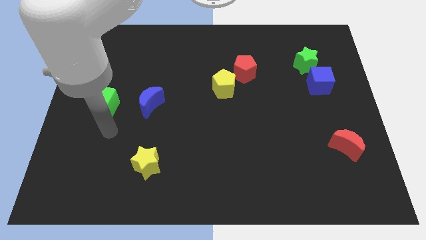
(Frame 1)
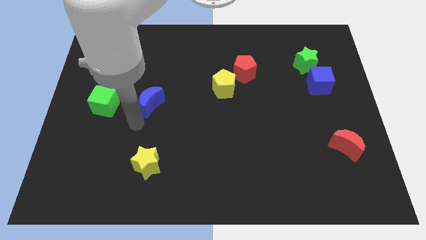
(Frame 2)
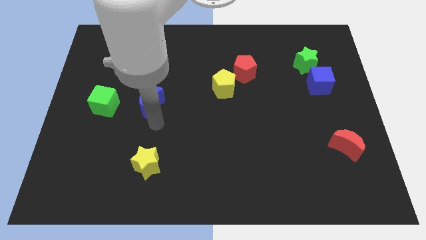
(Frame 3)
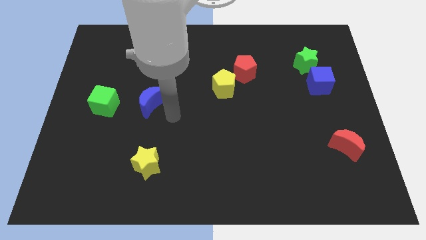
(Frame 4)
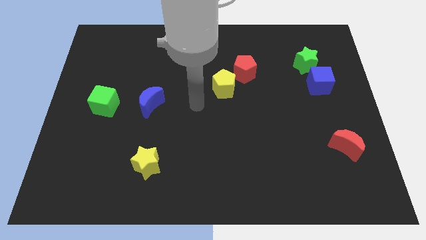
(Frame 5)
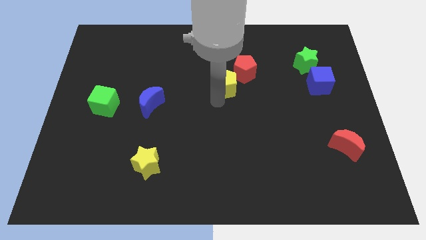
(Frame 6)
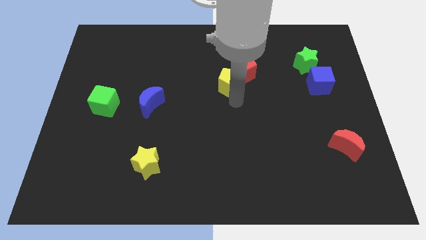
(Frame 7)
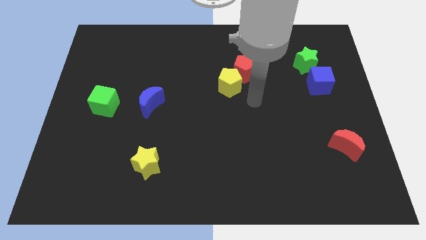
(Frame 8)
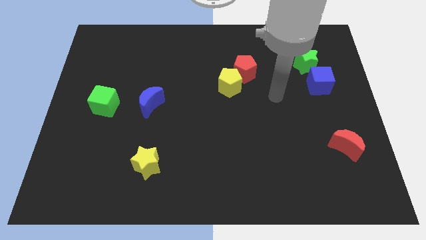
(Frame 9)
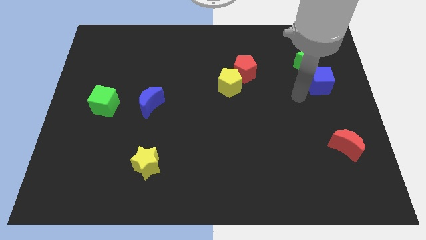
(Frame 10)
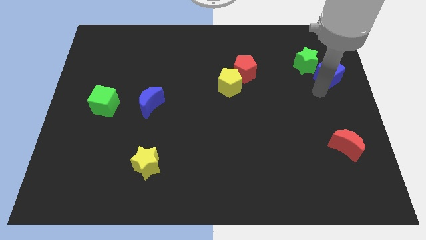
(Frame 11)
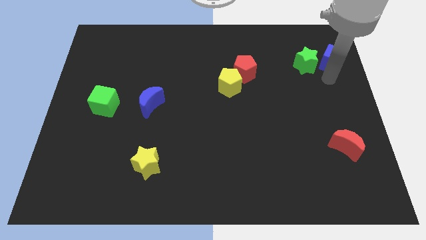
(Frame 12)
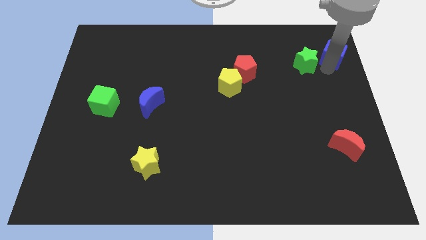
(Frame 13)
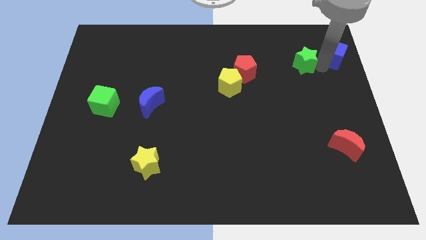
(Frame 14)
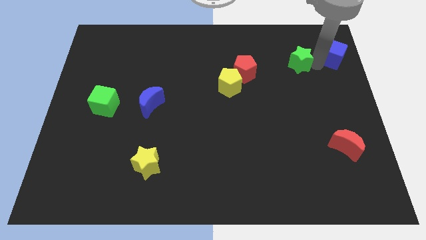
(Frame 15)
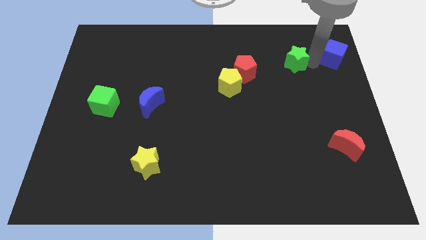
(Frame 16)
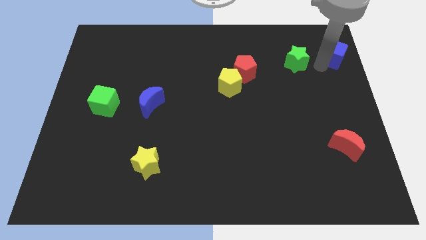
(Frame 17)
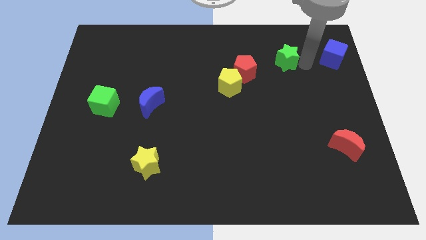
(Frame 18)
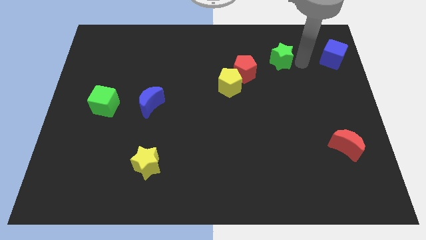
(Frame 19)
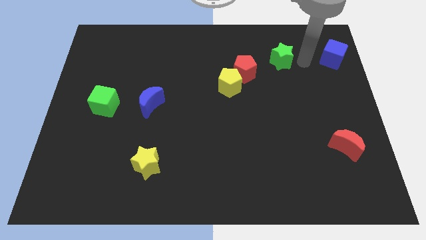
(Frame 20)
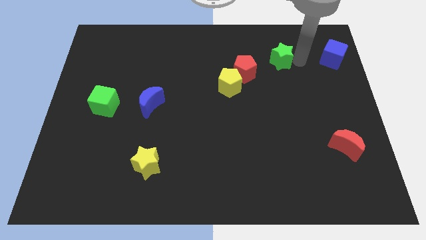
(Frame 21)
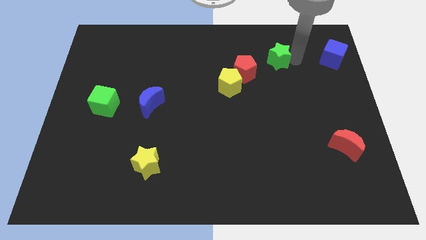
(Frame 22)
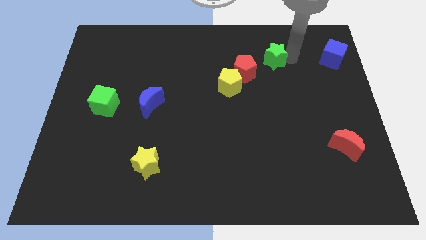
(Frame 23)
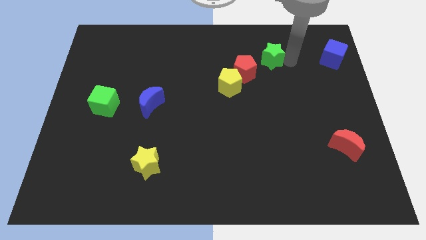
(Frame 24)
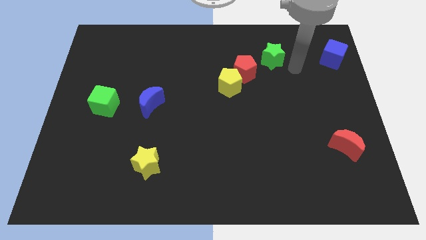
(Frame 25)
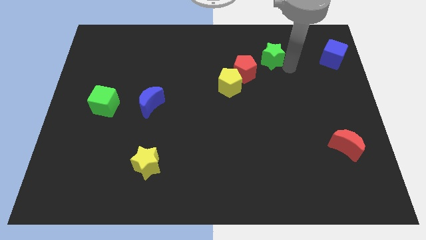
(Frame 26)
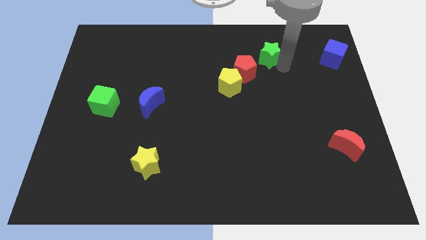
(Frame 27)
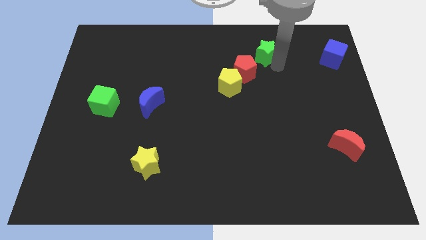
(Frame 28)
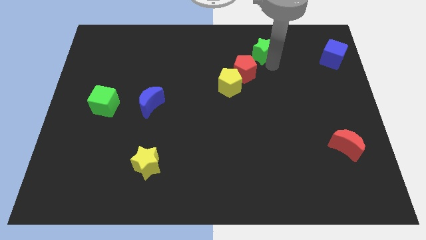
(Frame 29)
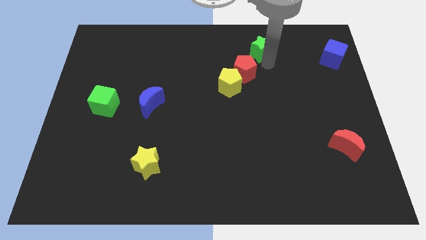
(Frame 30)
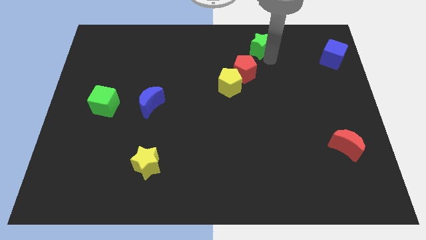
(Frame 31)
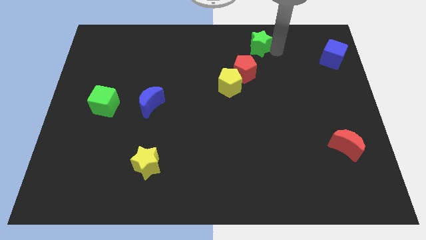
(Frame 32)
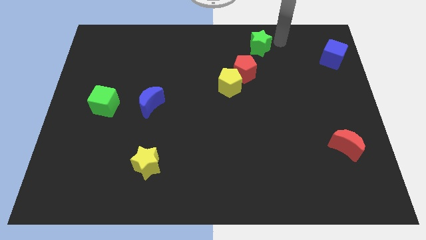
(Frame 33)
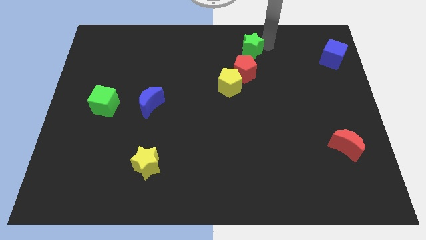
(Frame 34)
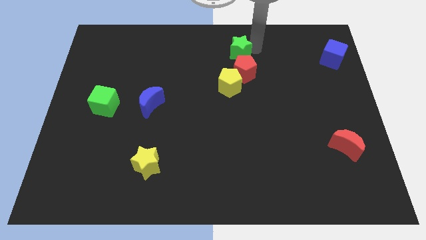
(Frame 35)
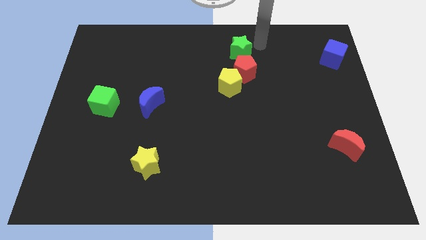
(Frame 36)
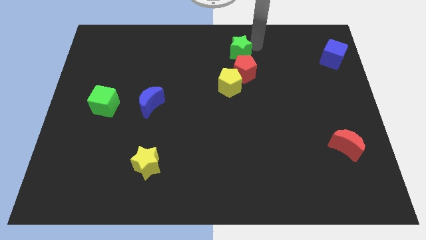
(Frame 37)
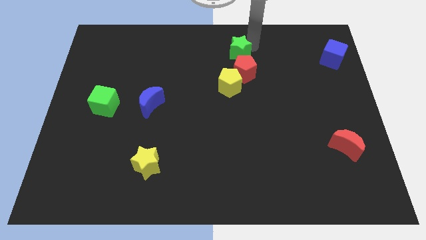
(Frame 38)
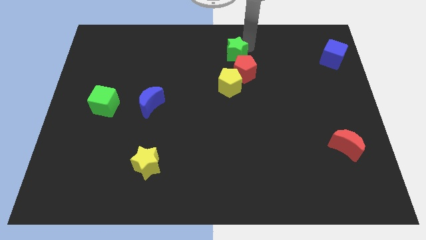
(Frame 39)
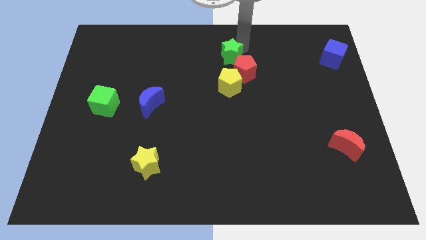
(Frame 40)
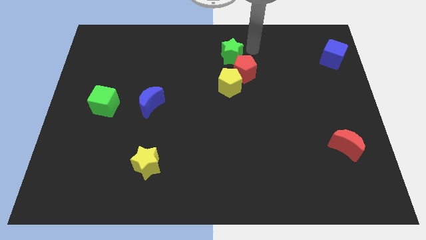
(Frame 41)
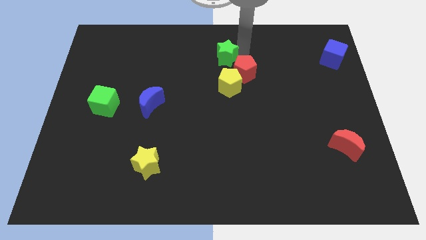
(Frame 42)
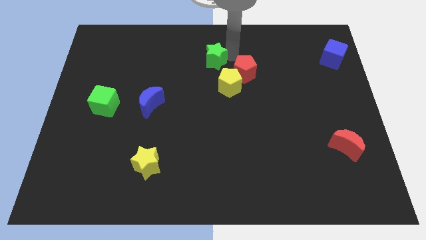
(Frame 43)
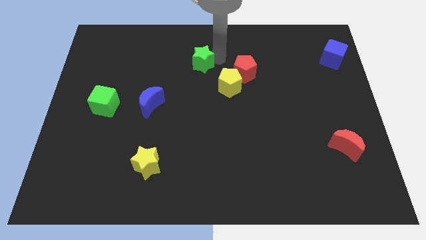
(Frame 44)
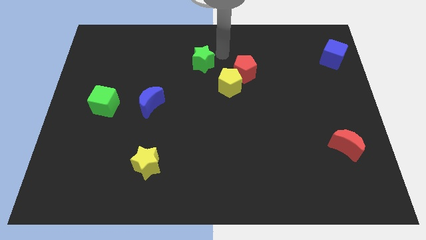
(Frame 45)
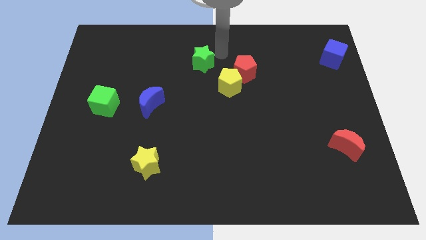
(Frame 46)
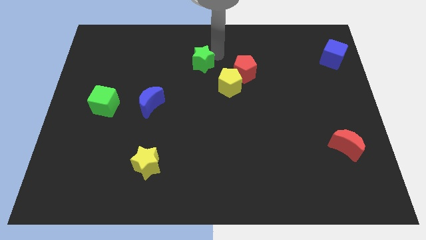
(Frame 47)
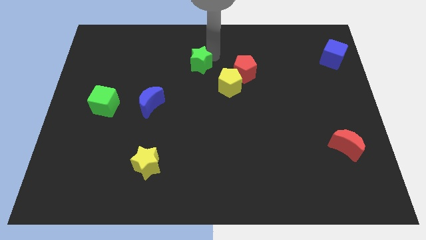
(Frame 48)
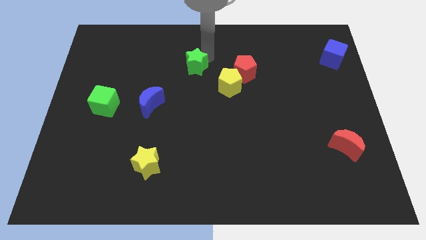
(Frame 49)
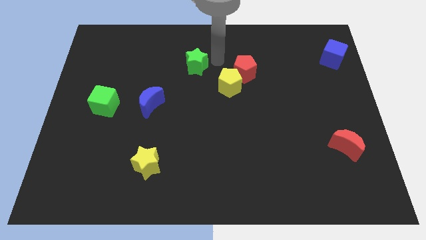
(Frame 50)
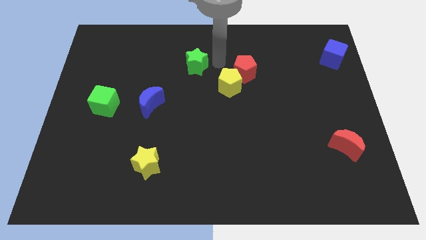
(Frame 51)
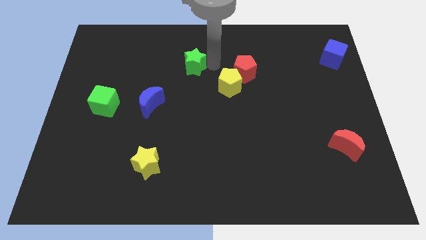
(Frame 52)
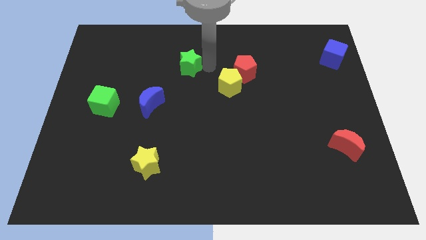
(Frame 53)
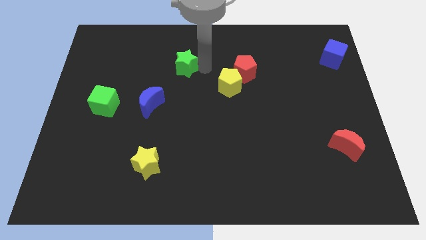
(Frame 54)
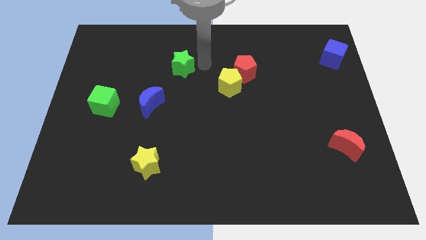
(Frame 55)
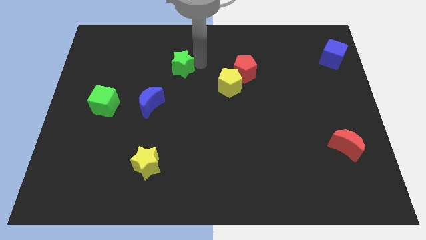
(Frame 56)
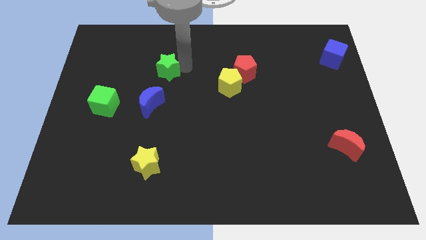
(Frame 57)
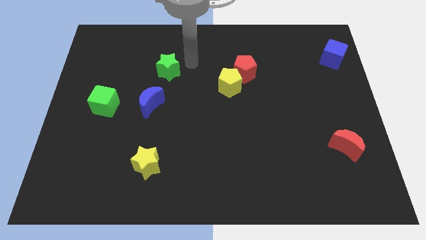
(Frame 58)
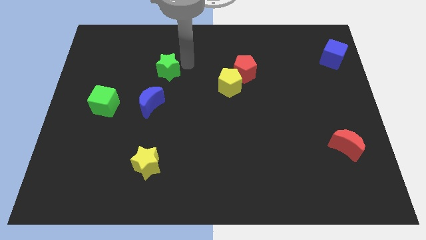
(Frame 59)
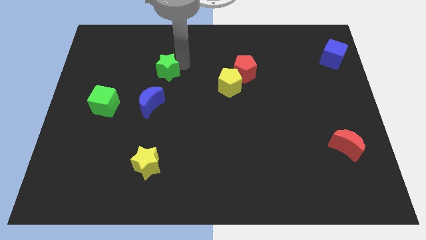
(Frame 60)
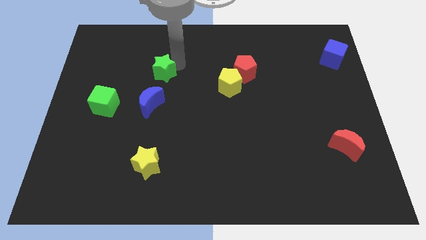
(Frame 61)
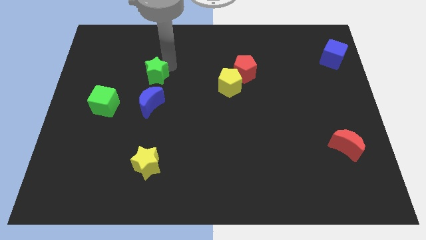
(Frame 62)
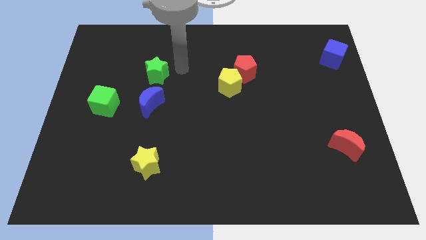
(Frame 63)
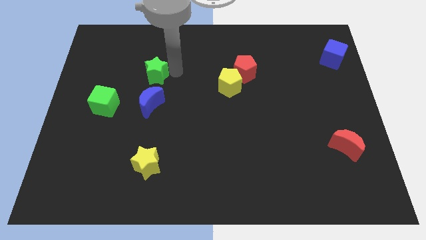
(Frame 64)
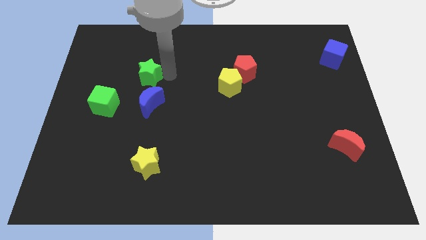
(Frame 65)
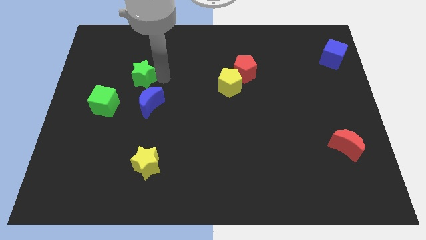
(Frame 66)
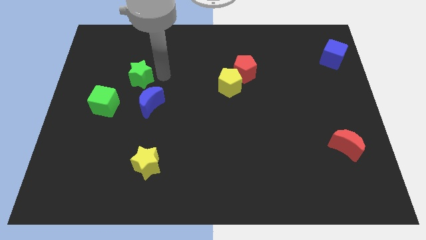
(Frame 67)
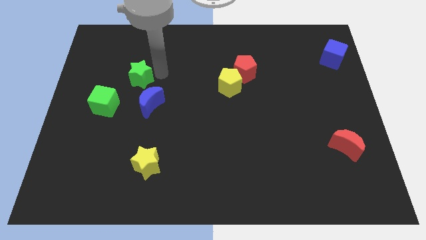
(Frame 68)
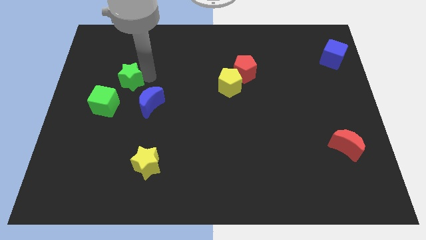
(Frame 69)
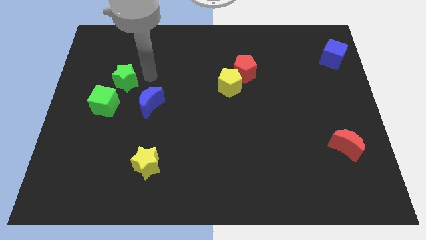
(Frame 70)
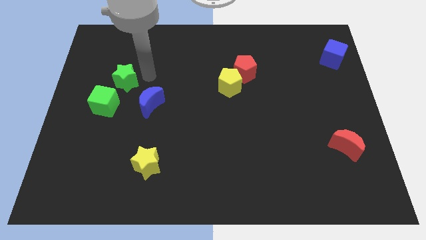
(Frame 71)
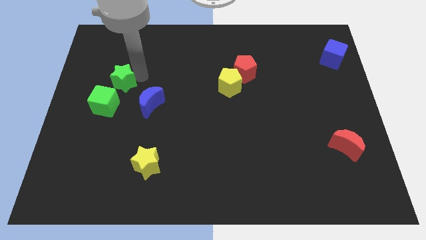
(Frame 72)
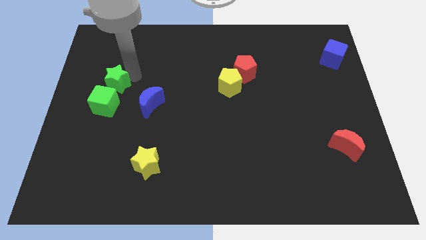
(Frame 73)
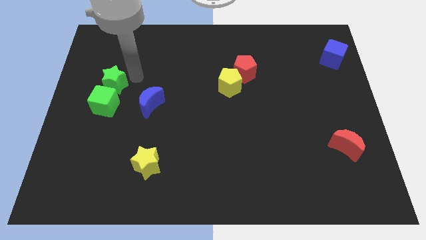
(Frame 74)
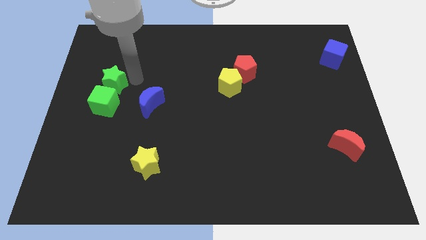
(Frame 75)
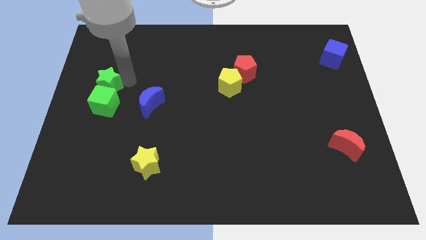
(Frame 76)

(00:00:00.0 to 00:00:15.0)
move the green star to the left side of the board
